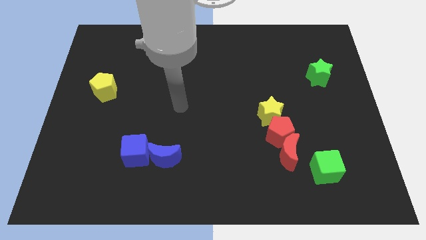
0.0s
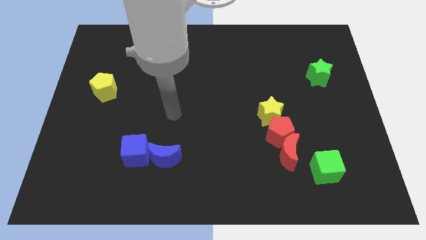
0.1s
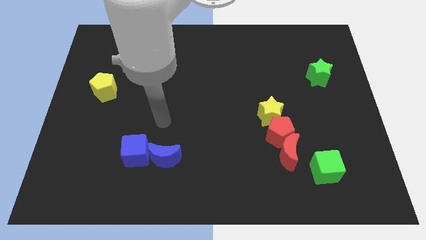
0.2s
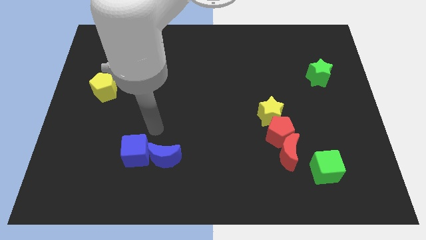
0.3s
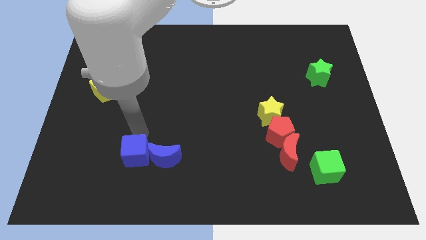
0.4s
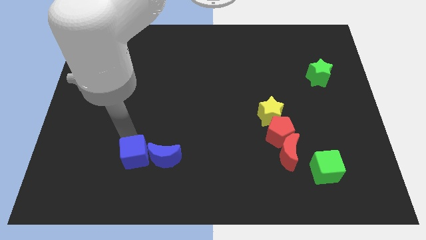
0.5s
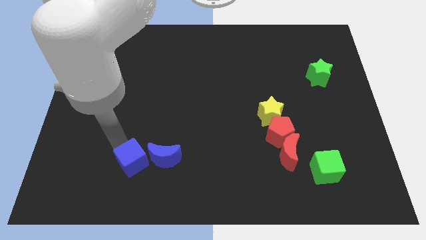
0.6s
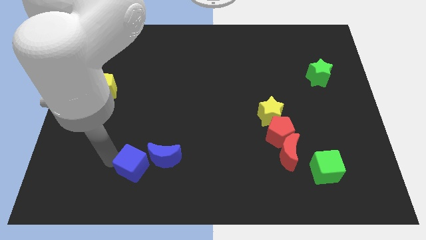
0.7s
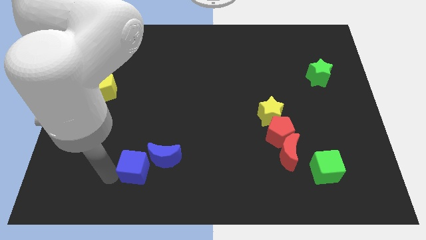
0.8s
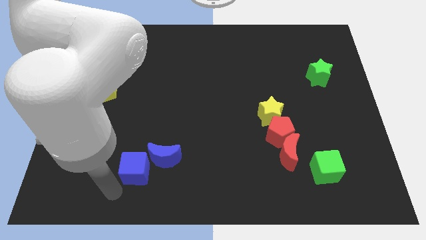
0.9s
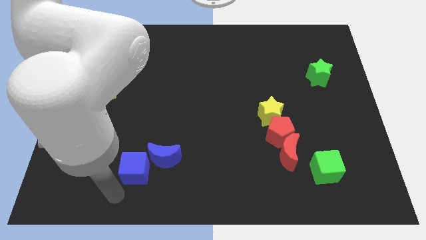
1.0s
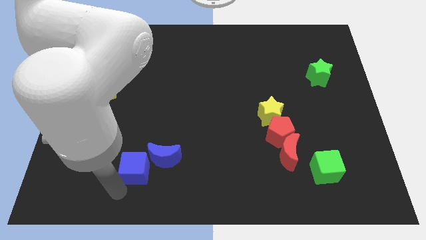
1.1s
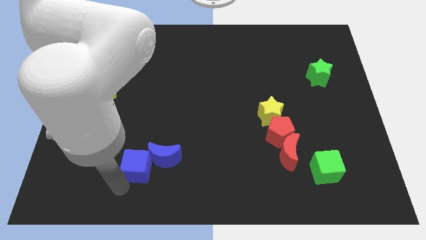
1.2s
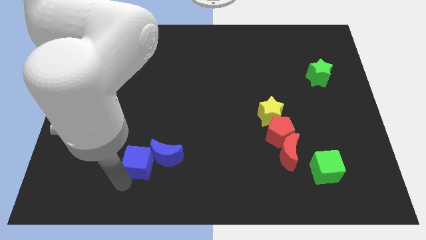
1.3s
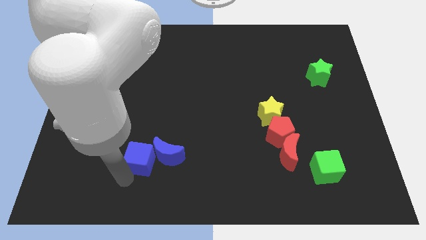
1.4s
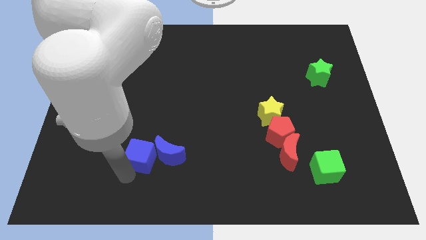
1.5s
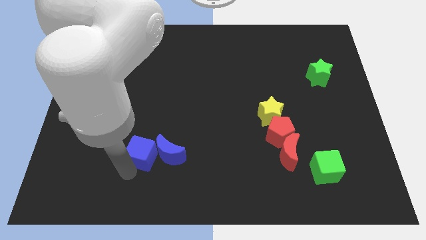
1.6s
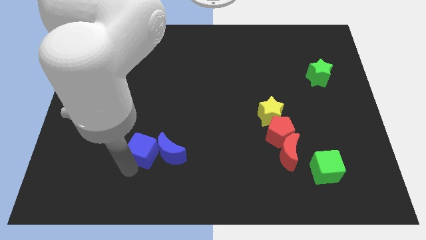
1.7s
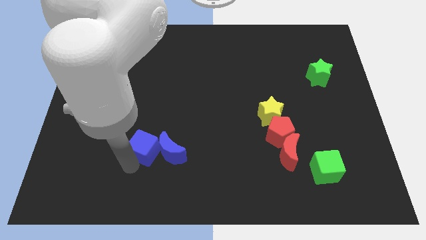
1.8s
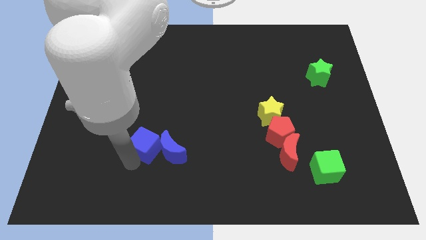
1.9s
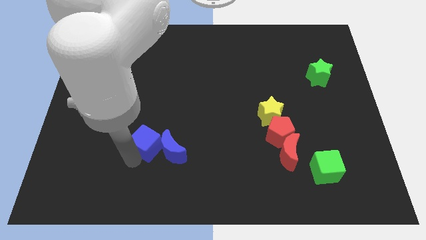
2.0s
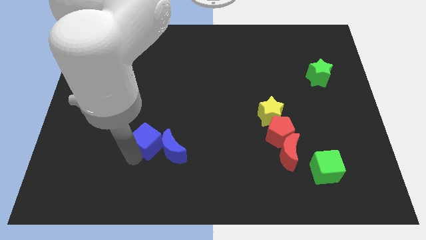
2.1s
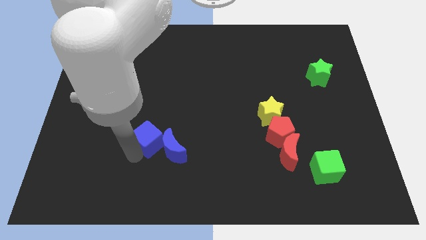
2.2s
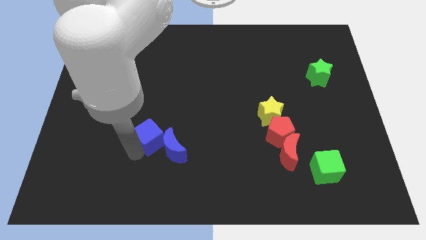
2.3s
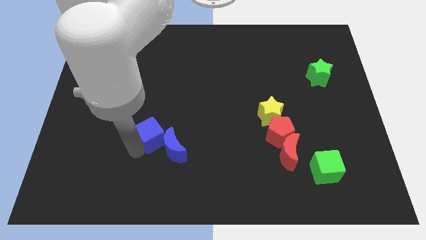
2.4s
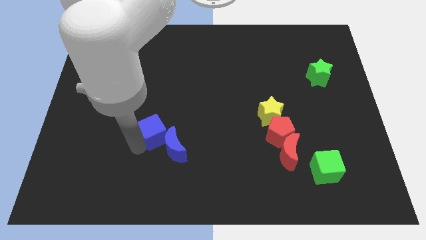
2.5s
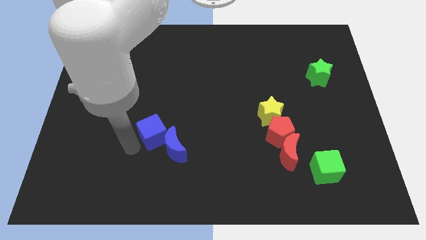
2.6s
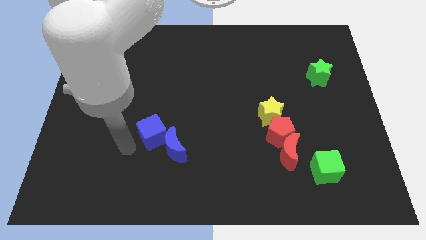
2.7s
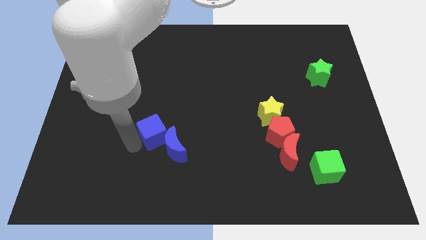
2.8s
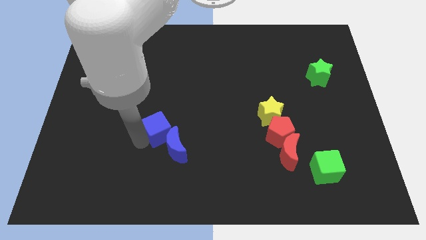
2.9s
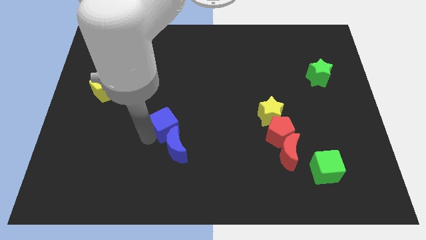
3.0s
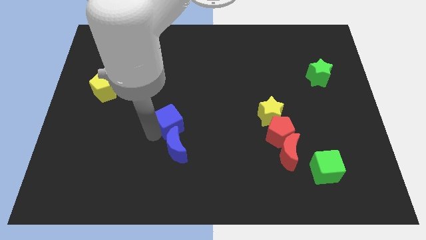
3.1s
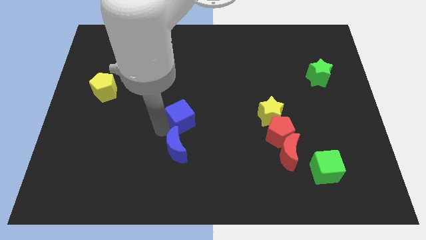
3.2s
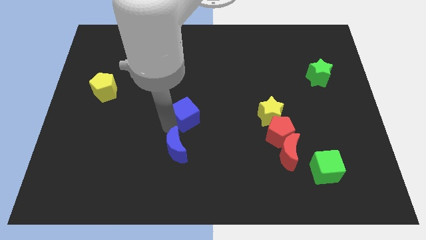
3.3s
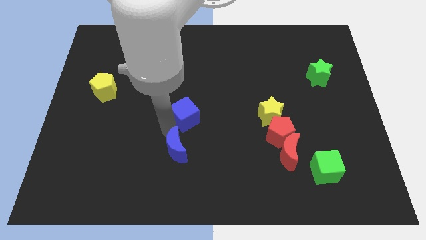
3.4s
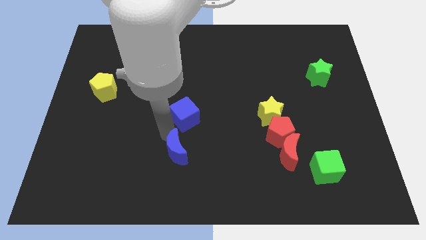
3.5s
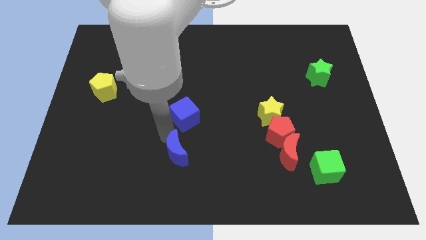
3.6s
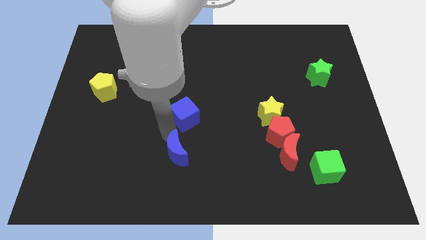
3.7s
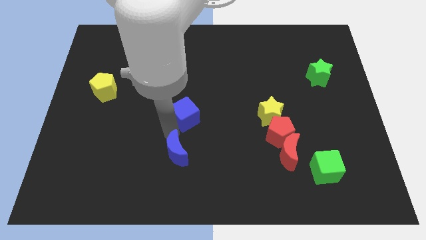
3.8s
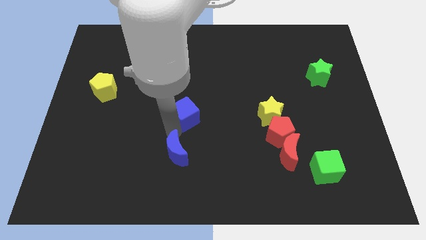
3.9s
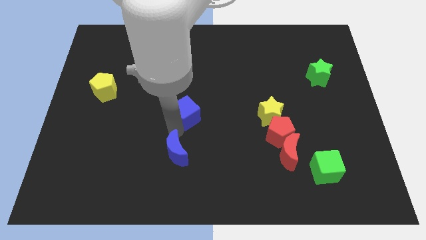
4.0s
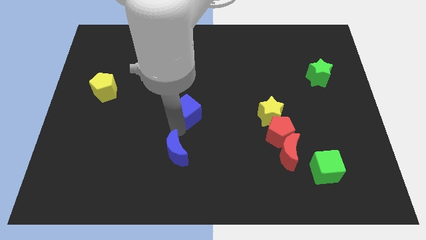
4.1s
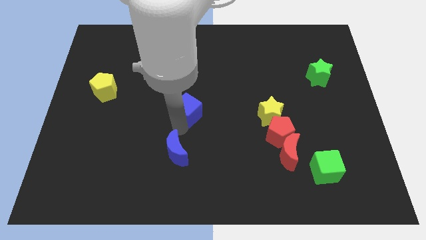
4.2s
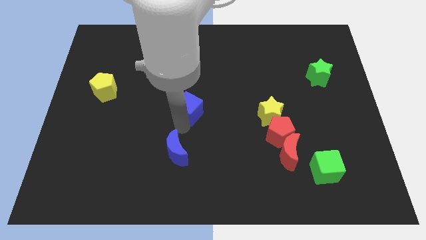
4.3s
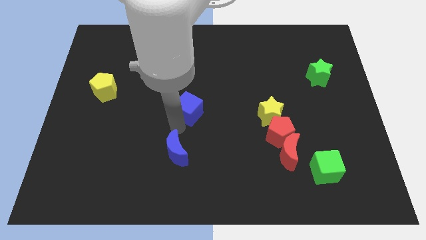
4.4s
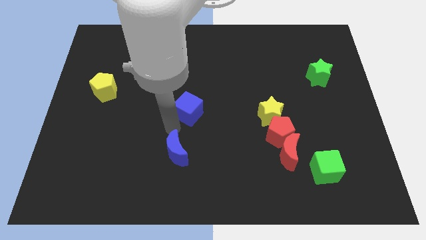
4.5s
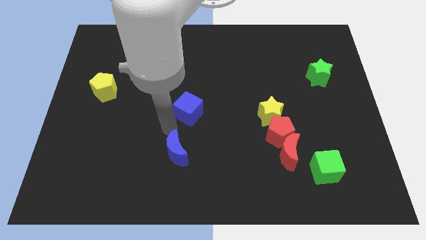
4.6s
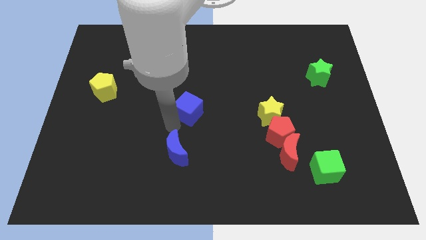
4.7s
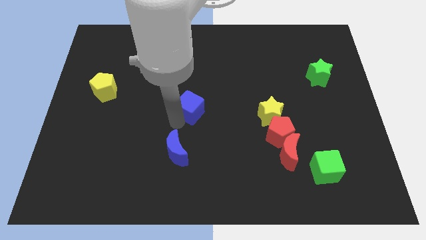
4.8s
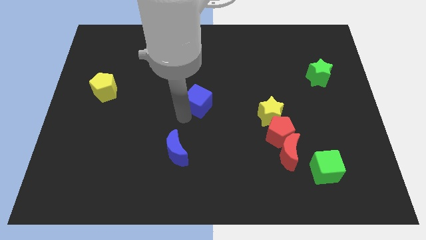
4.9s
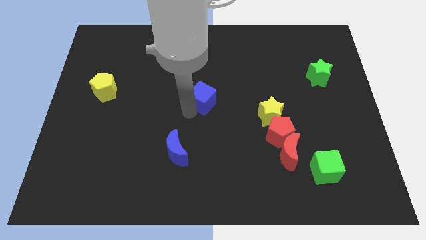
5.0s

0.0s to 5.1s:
move the blue cube diagonally up and right

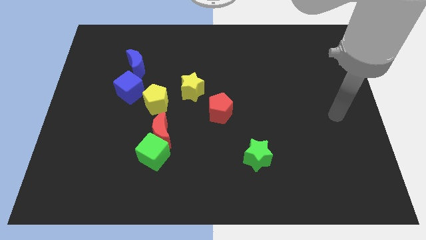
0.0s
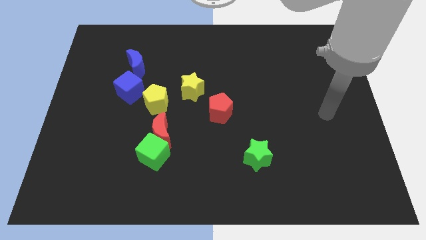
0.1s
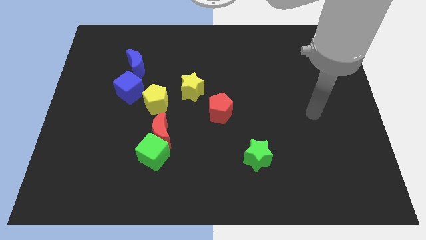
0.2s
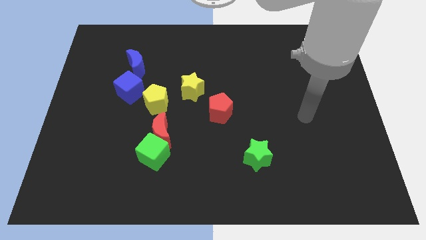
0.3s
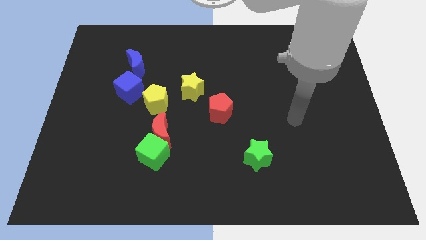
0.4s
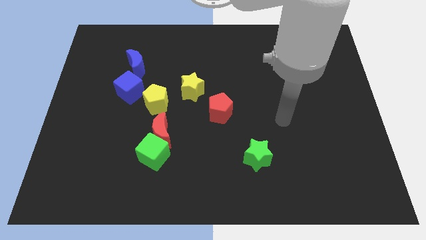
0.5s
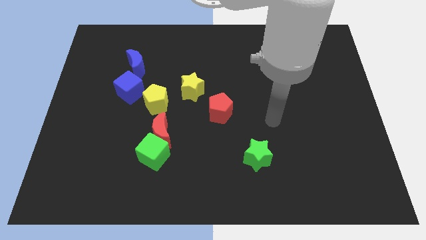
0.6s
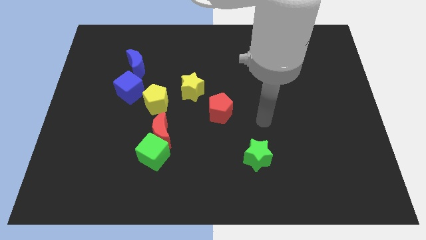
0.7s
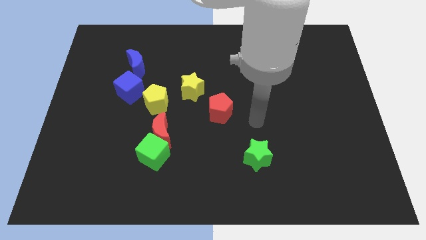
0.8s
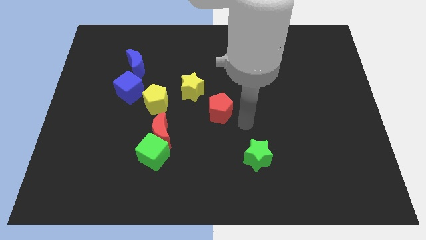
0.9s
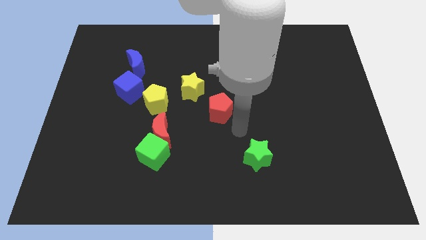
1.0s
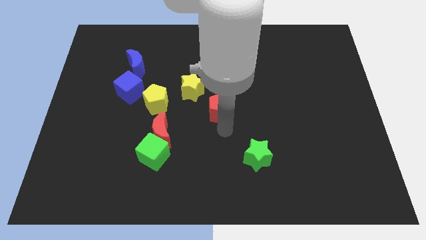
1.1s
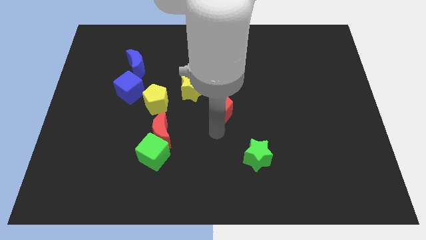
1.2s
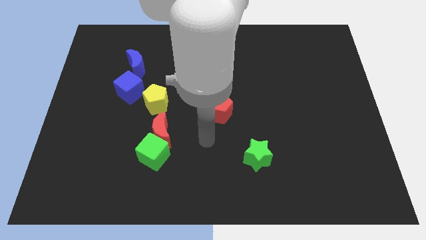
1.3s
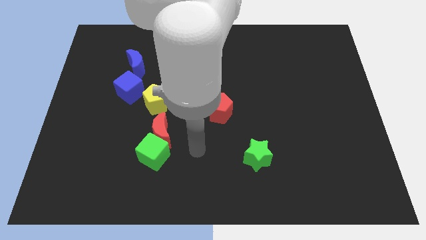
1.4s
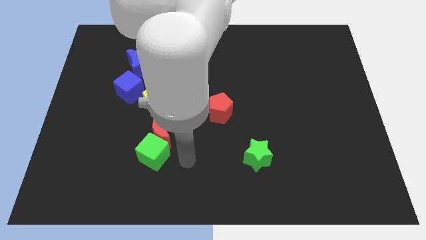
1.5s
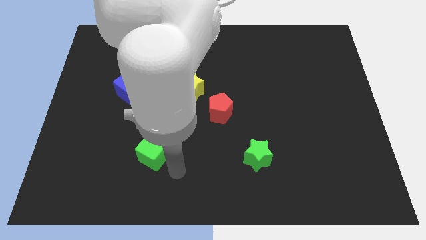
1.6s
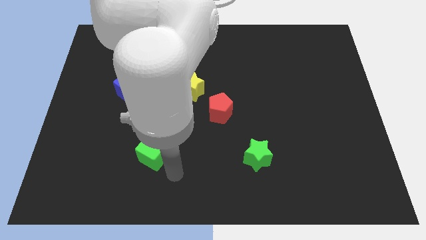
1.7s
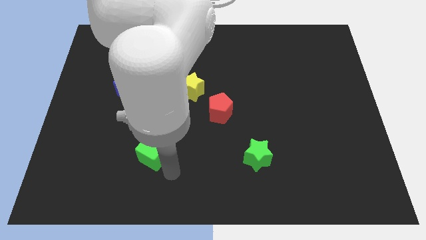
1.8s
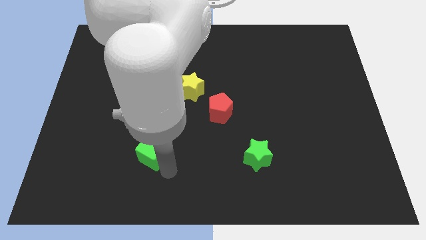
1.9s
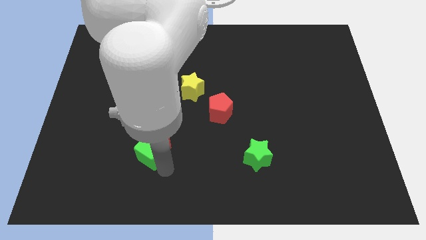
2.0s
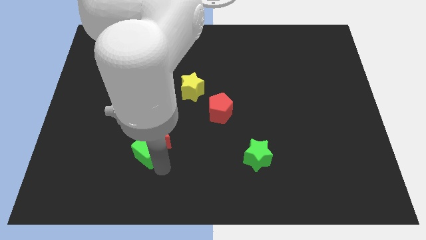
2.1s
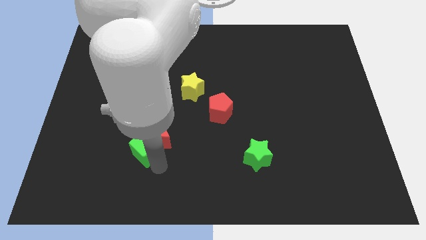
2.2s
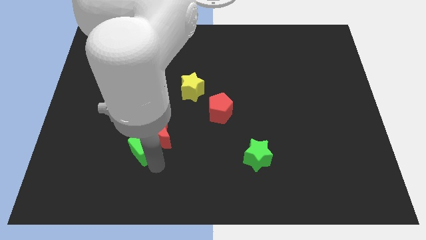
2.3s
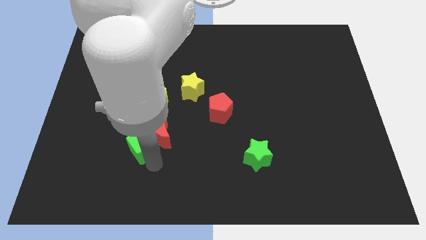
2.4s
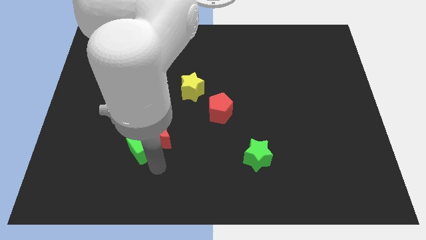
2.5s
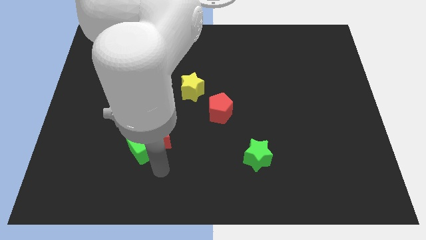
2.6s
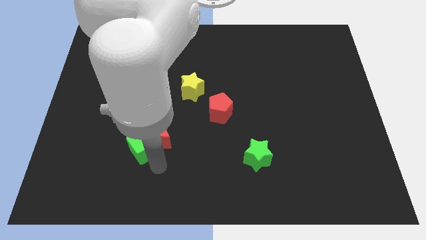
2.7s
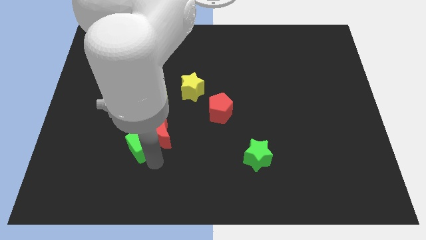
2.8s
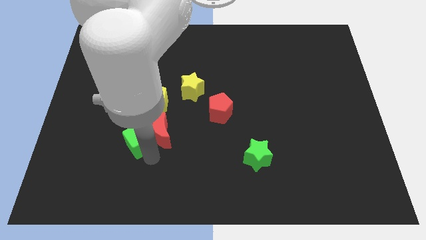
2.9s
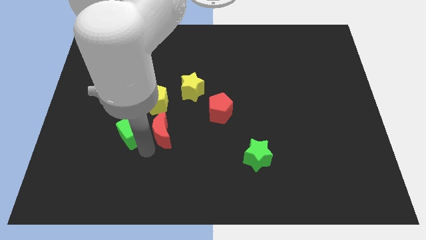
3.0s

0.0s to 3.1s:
slightly slide the green cube diagonally up and to the left
